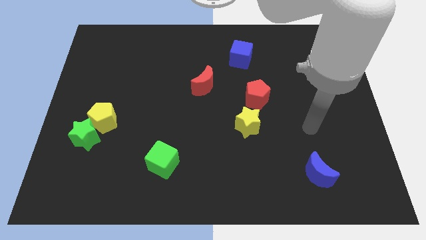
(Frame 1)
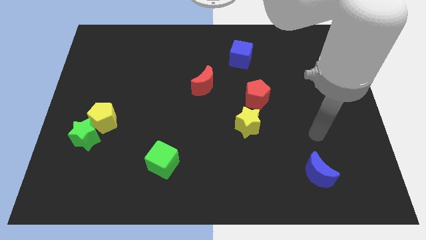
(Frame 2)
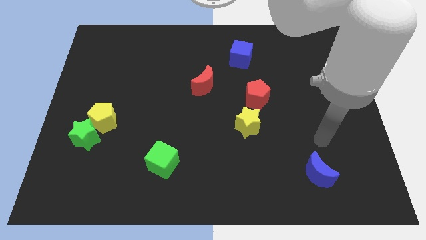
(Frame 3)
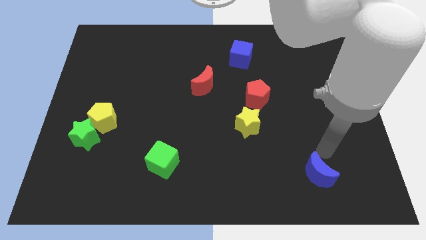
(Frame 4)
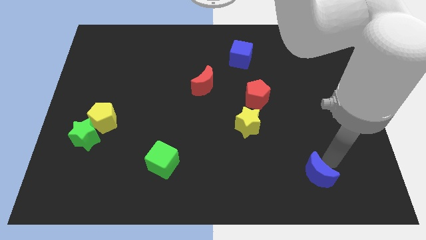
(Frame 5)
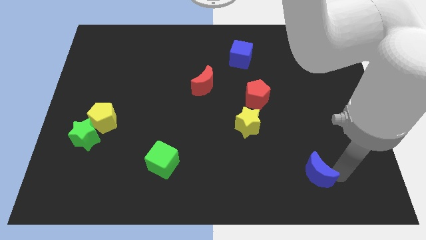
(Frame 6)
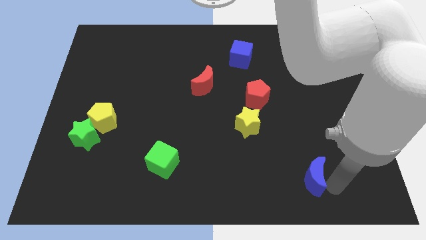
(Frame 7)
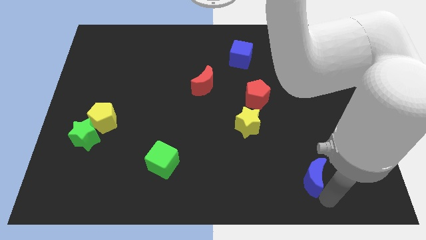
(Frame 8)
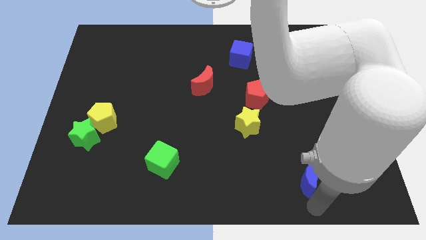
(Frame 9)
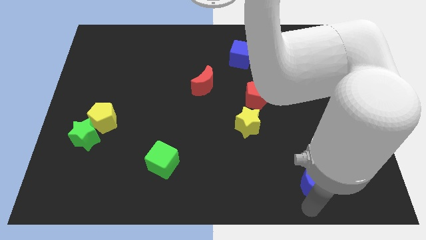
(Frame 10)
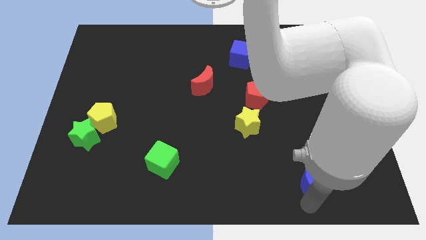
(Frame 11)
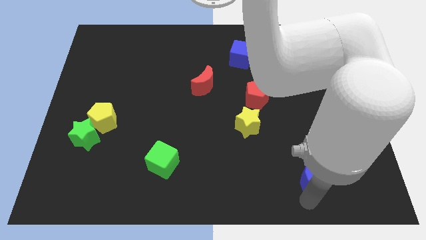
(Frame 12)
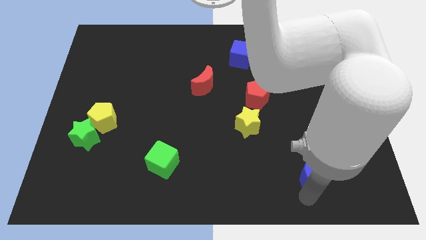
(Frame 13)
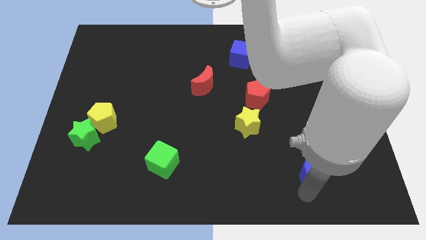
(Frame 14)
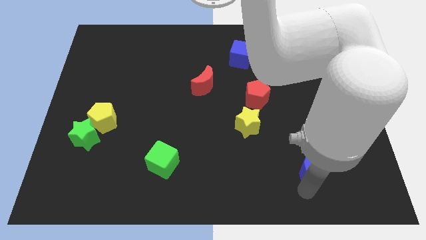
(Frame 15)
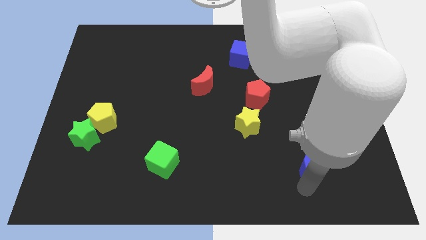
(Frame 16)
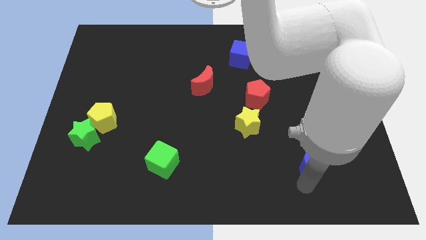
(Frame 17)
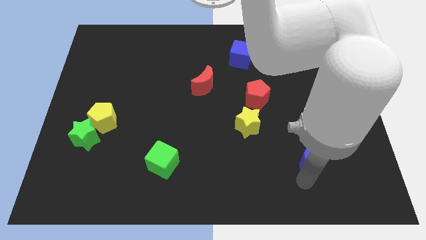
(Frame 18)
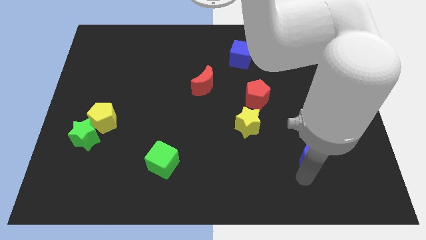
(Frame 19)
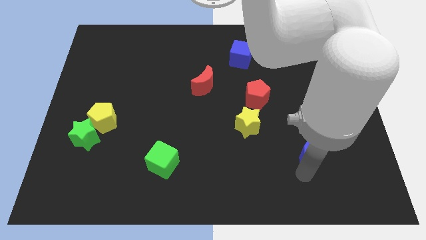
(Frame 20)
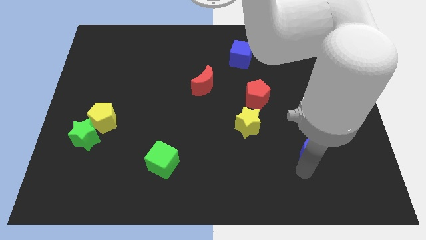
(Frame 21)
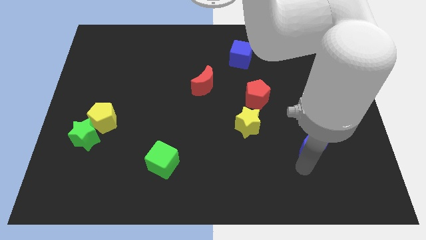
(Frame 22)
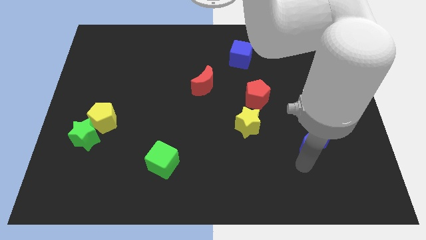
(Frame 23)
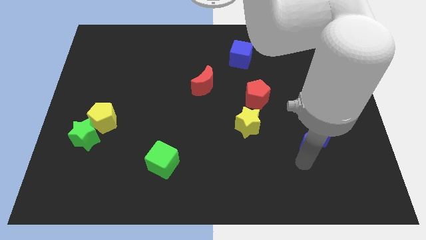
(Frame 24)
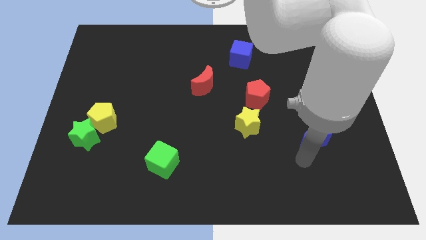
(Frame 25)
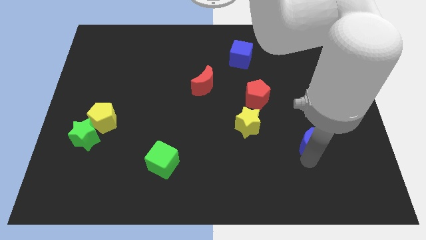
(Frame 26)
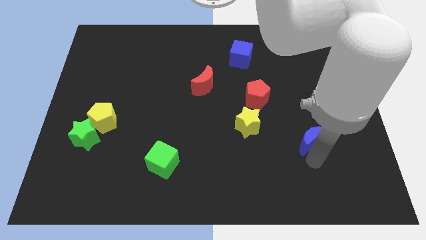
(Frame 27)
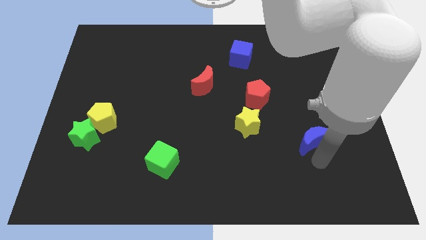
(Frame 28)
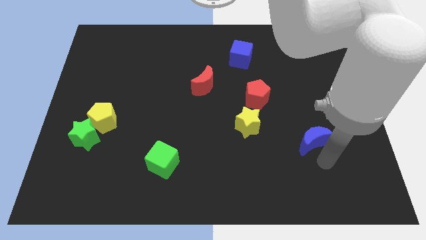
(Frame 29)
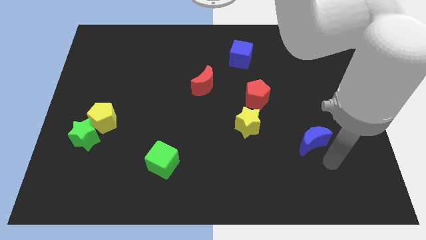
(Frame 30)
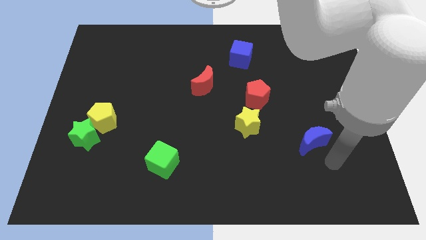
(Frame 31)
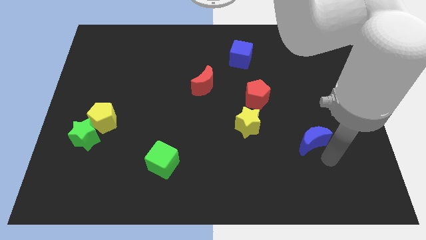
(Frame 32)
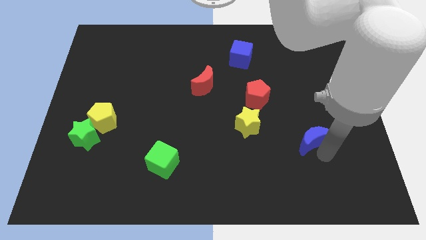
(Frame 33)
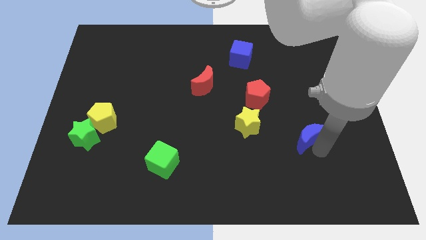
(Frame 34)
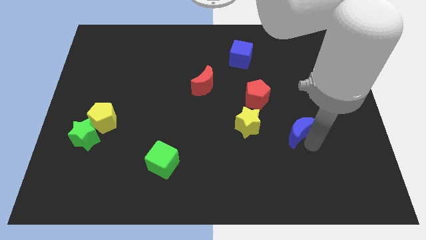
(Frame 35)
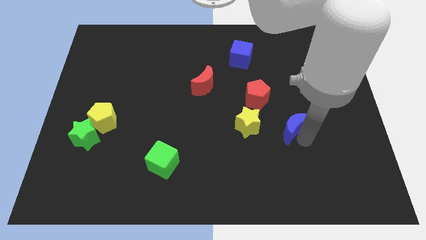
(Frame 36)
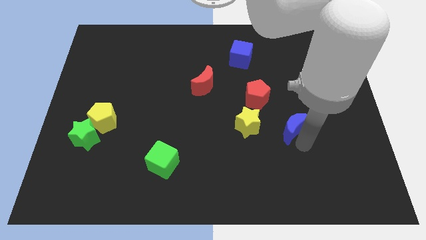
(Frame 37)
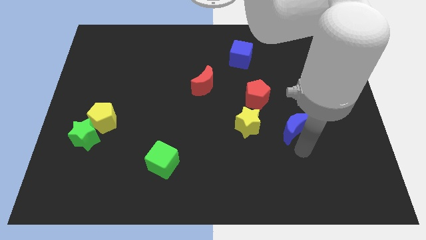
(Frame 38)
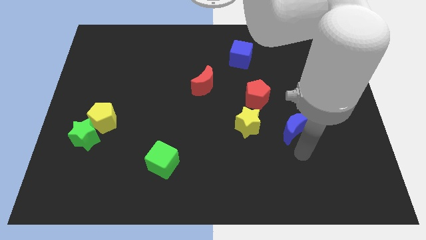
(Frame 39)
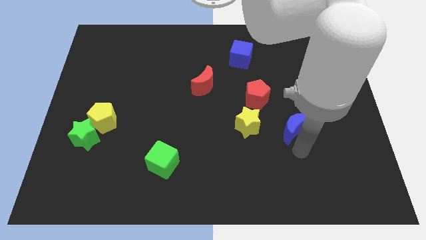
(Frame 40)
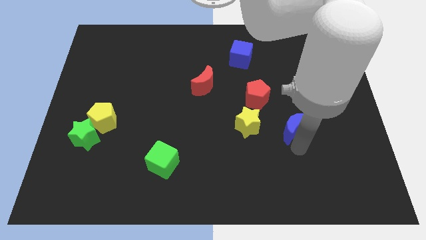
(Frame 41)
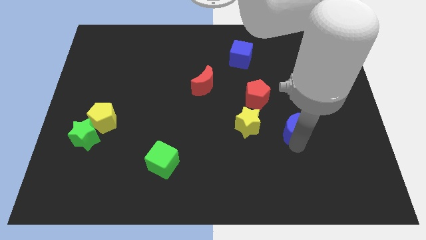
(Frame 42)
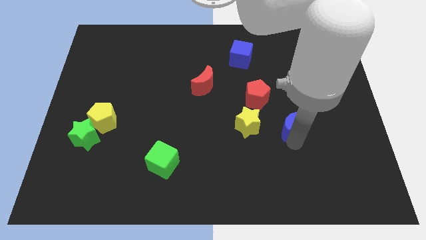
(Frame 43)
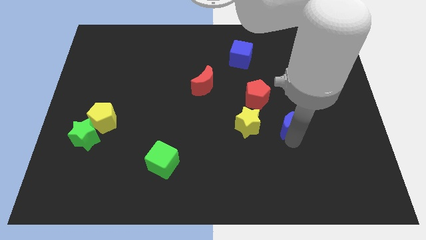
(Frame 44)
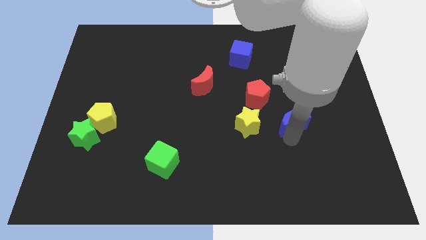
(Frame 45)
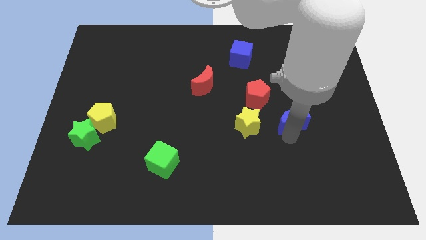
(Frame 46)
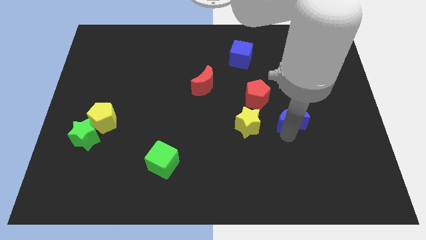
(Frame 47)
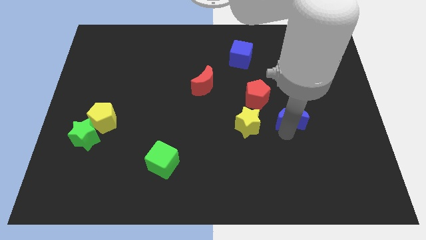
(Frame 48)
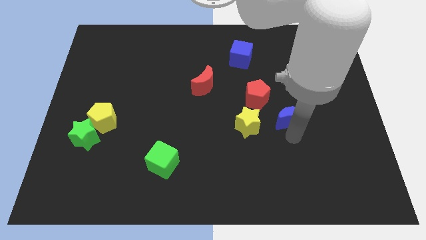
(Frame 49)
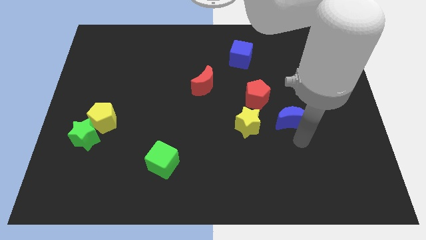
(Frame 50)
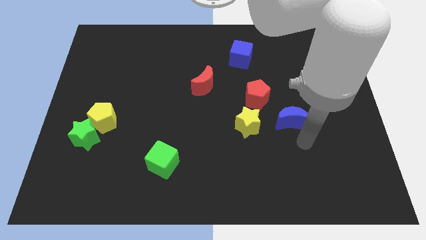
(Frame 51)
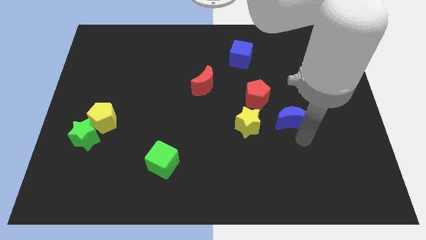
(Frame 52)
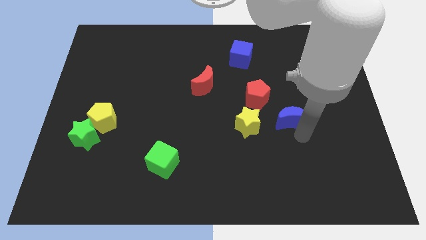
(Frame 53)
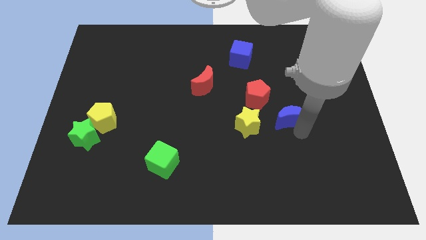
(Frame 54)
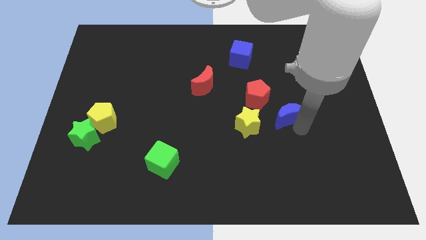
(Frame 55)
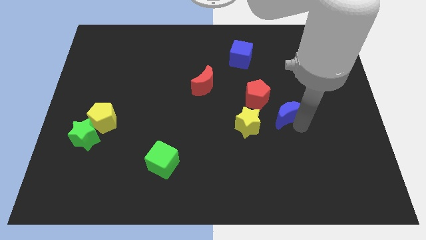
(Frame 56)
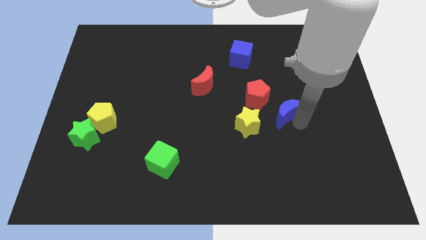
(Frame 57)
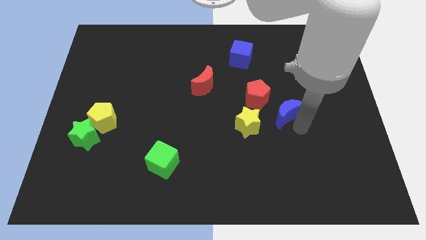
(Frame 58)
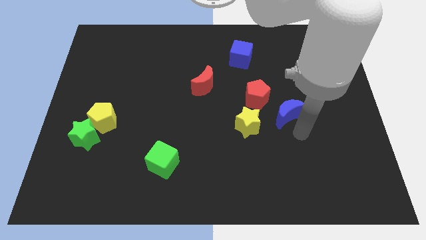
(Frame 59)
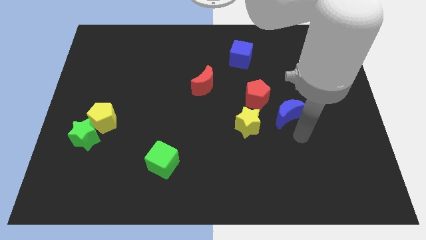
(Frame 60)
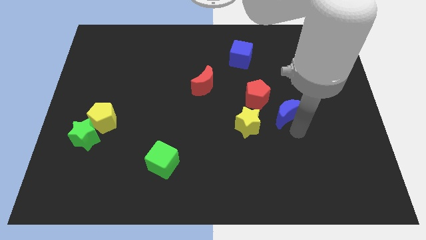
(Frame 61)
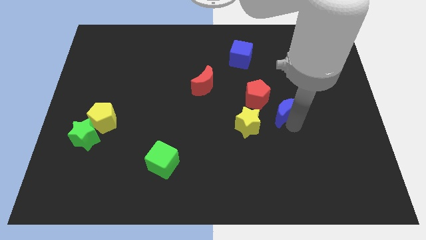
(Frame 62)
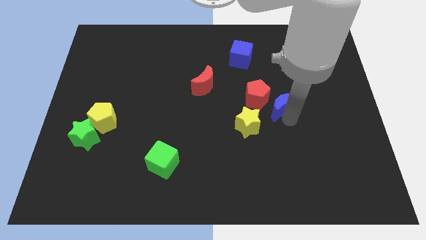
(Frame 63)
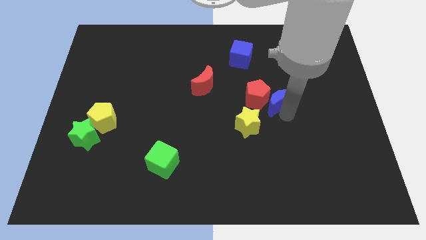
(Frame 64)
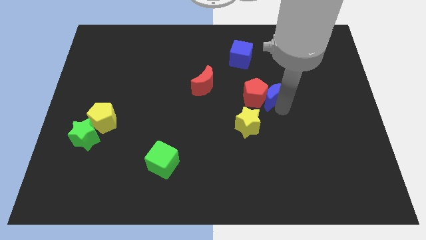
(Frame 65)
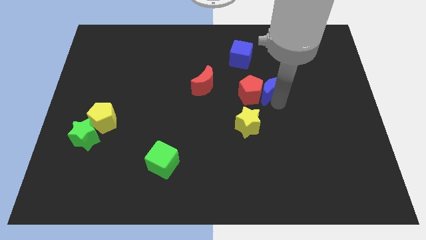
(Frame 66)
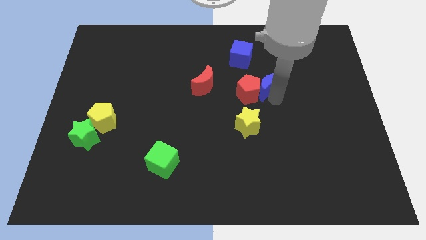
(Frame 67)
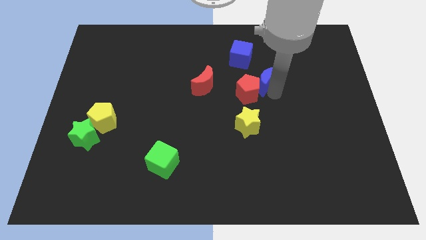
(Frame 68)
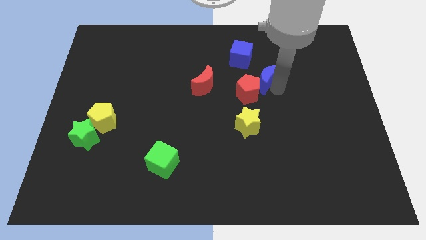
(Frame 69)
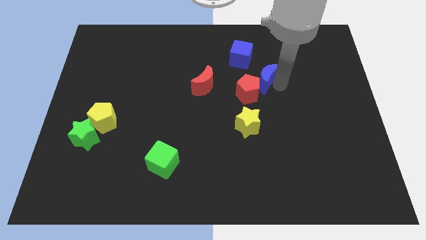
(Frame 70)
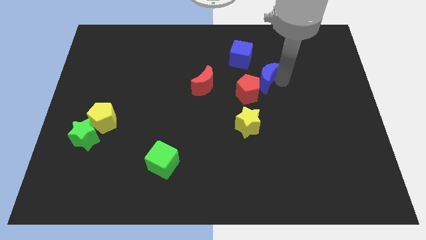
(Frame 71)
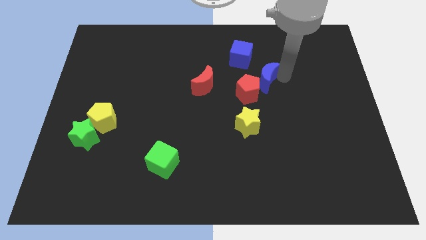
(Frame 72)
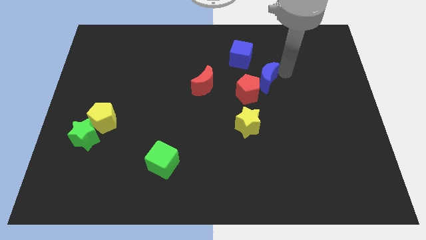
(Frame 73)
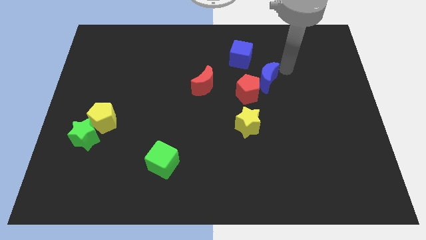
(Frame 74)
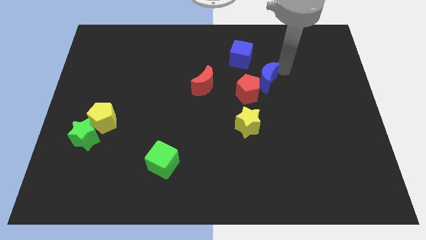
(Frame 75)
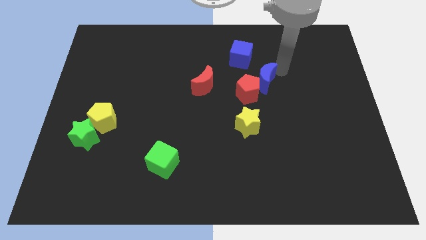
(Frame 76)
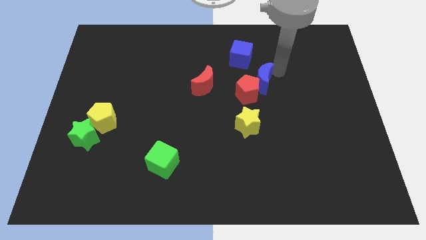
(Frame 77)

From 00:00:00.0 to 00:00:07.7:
slide the blue moon to the top side of the yellow star

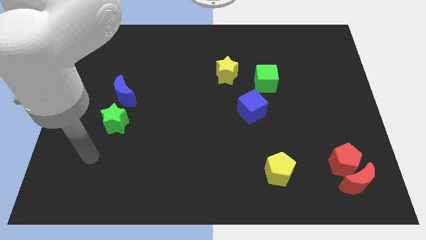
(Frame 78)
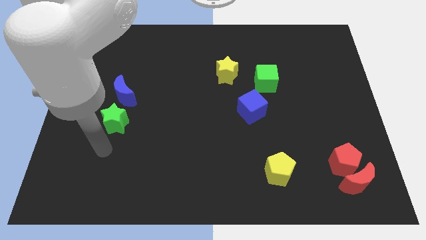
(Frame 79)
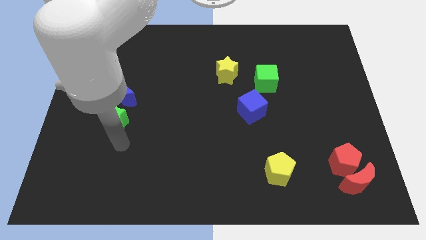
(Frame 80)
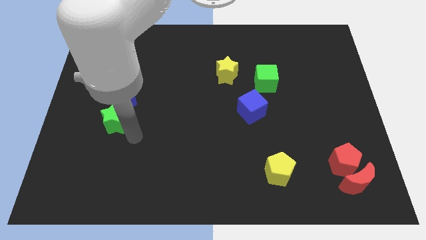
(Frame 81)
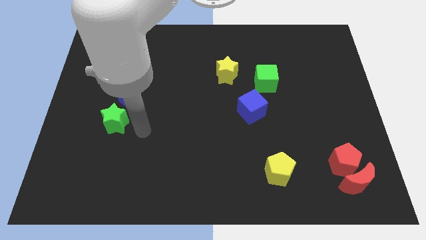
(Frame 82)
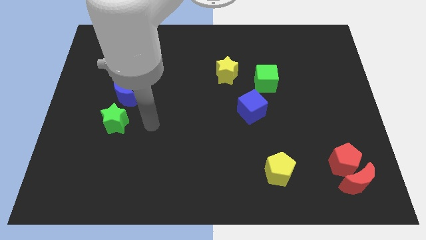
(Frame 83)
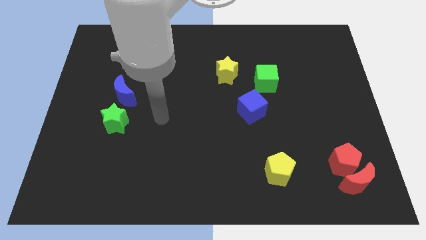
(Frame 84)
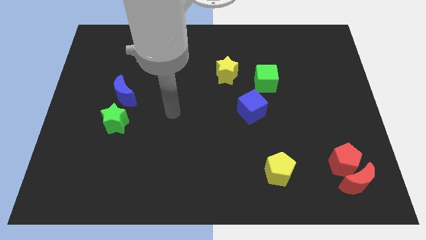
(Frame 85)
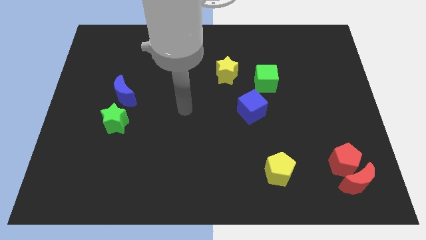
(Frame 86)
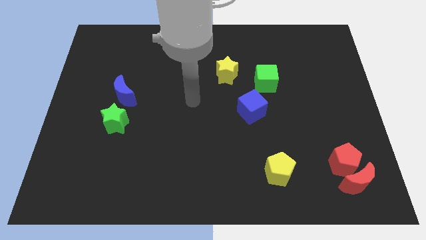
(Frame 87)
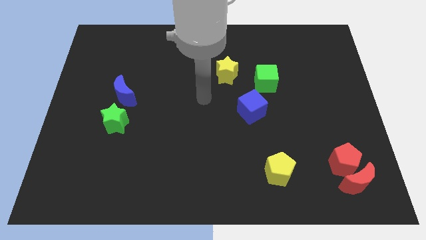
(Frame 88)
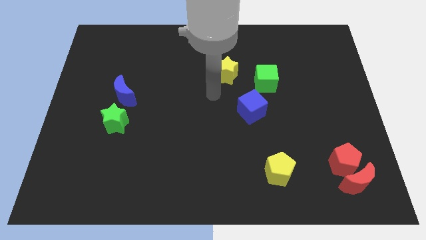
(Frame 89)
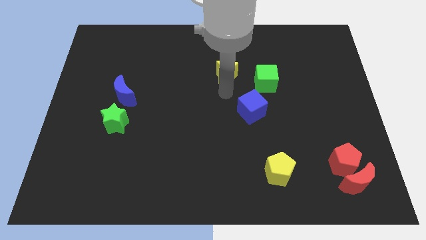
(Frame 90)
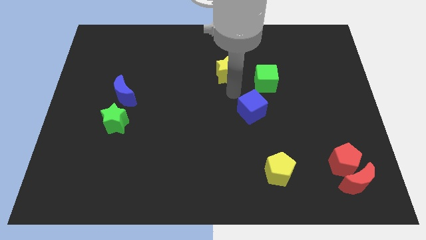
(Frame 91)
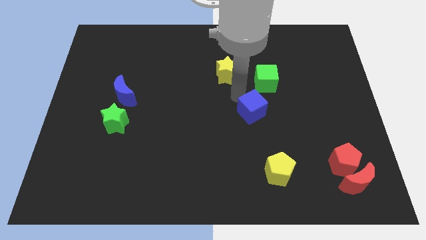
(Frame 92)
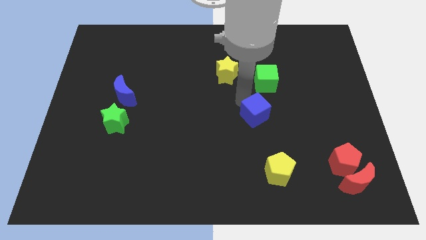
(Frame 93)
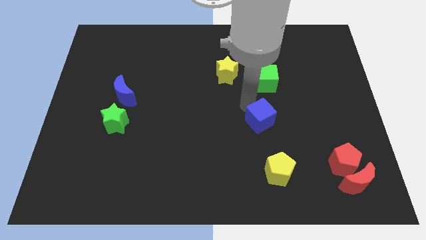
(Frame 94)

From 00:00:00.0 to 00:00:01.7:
slide the blue cube to the top of the yellow pentagon
